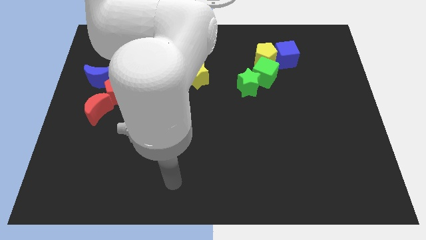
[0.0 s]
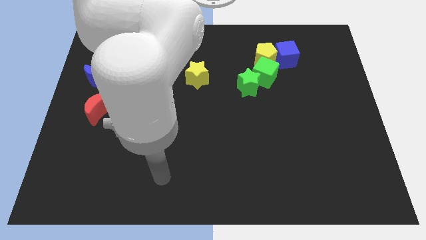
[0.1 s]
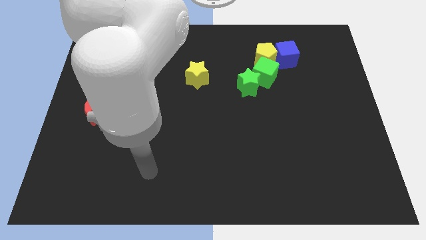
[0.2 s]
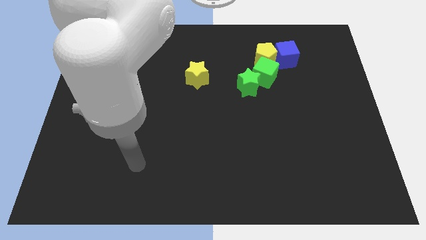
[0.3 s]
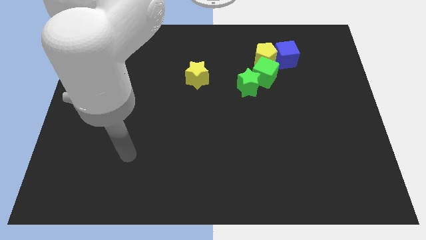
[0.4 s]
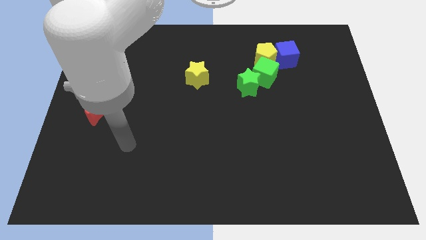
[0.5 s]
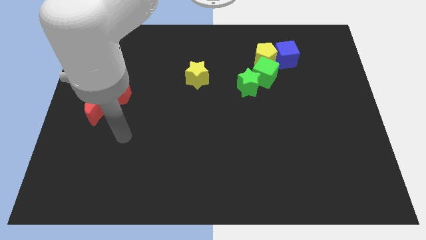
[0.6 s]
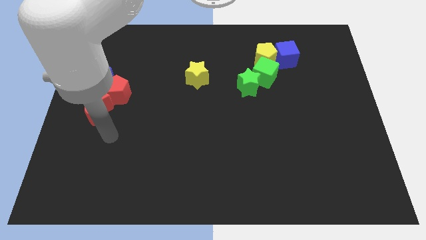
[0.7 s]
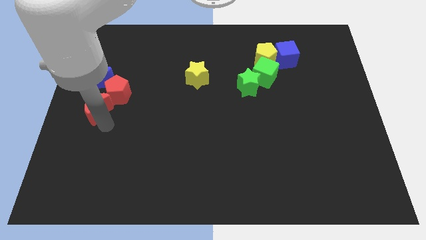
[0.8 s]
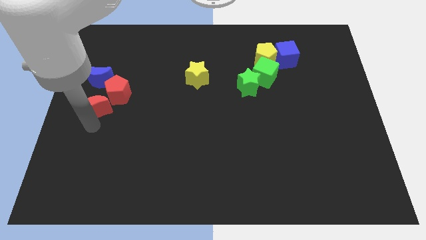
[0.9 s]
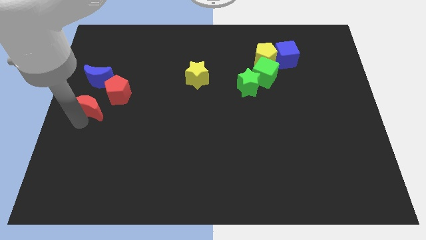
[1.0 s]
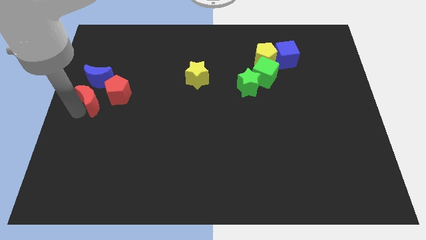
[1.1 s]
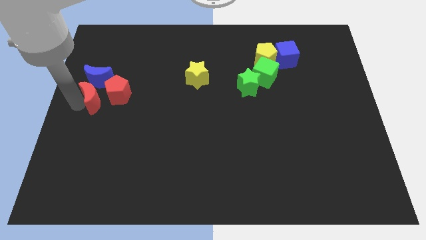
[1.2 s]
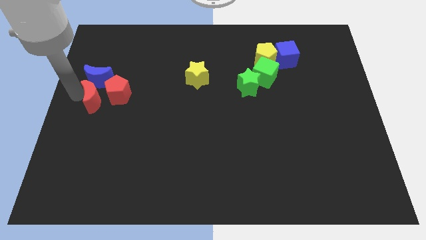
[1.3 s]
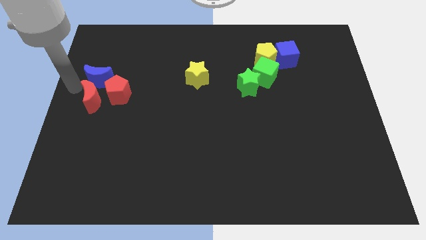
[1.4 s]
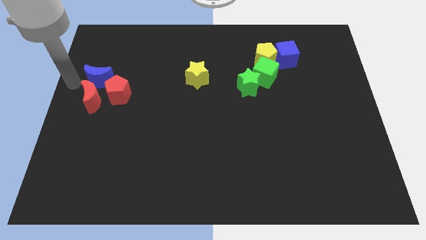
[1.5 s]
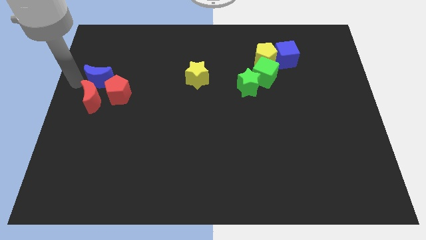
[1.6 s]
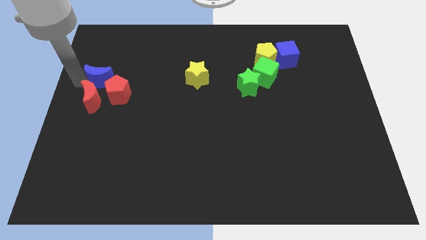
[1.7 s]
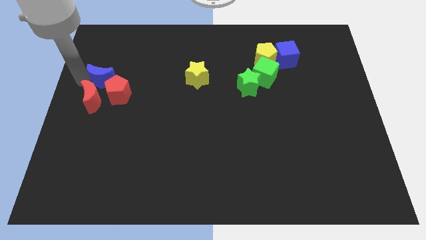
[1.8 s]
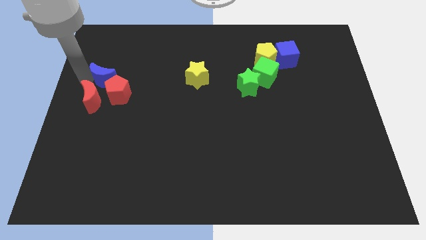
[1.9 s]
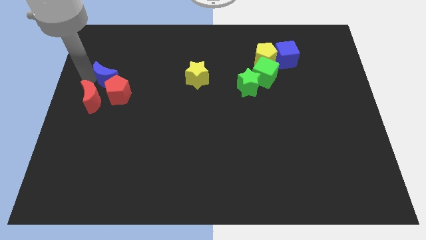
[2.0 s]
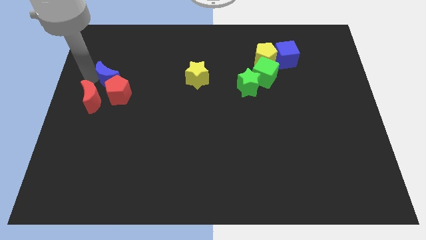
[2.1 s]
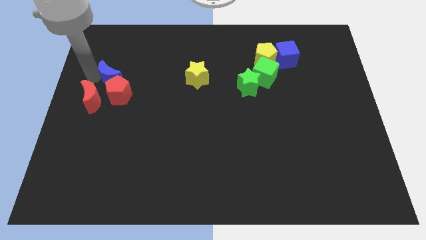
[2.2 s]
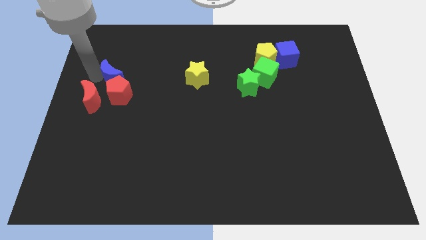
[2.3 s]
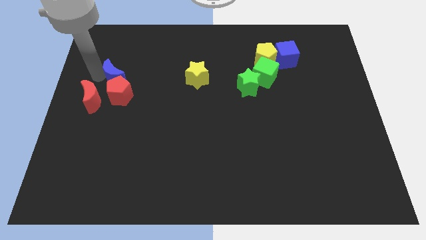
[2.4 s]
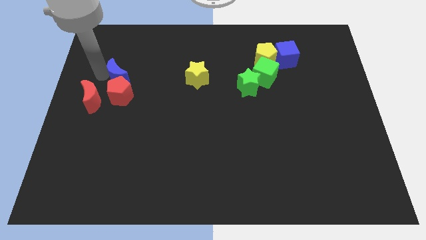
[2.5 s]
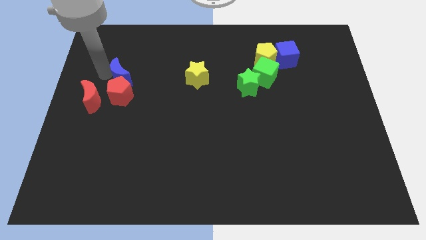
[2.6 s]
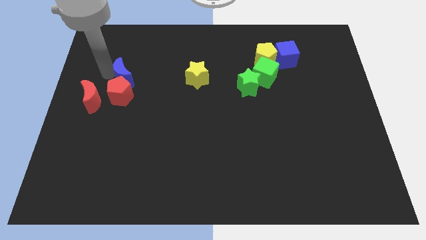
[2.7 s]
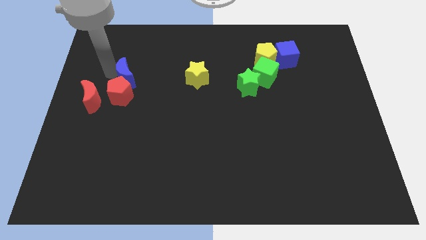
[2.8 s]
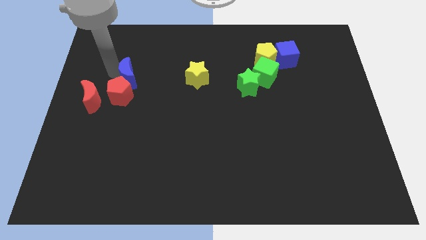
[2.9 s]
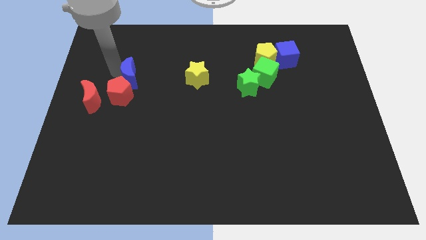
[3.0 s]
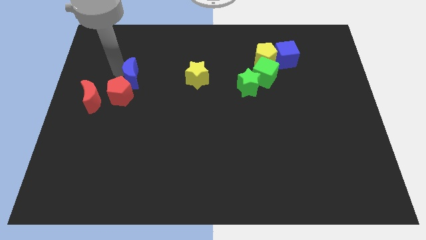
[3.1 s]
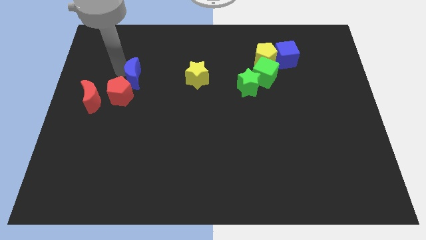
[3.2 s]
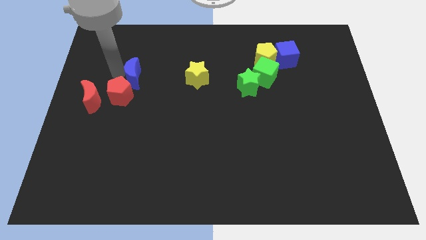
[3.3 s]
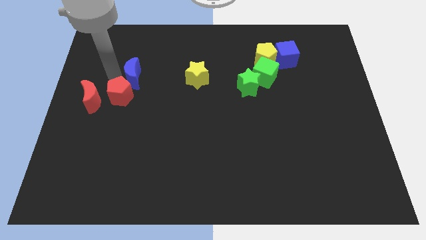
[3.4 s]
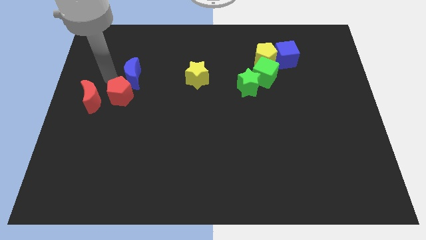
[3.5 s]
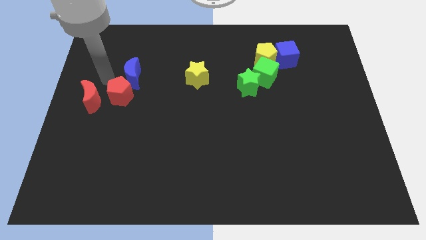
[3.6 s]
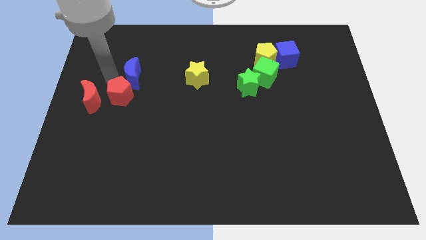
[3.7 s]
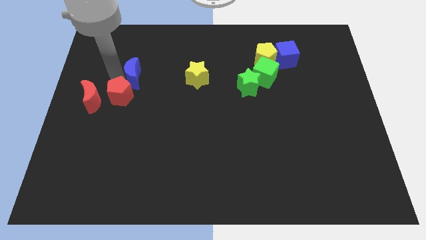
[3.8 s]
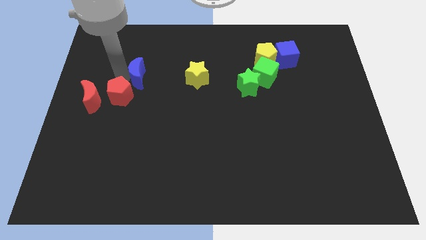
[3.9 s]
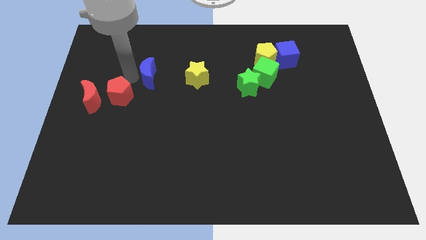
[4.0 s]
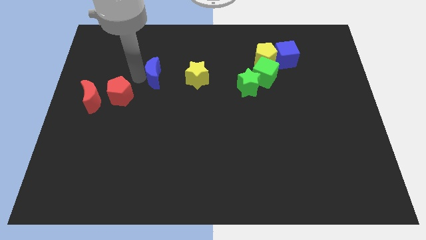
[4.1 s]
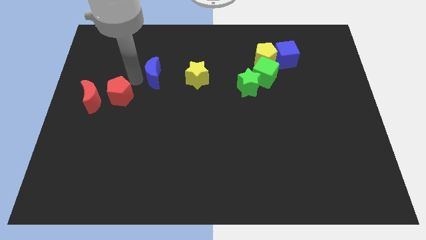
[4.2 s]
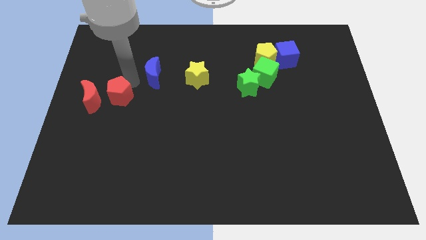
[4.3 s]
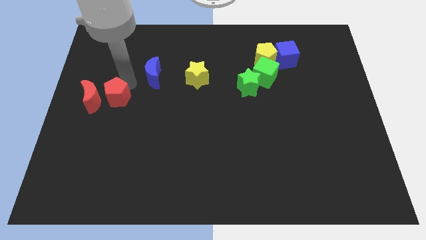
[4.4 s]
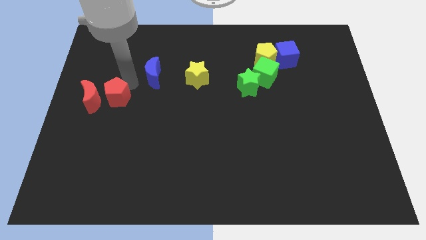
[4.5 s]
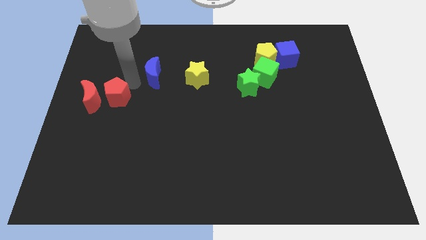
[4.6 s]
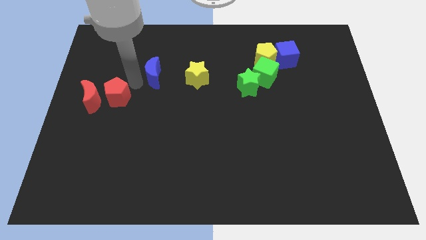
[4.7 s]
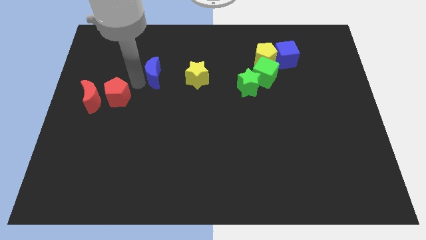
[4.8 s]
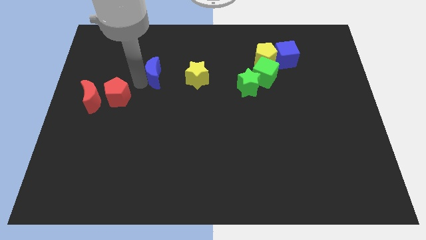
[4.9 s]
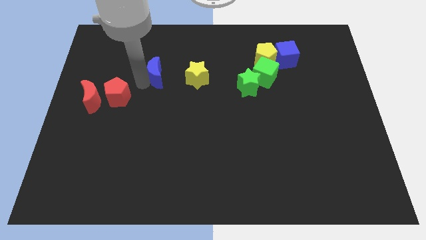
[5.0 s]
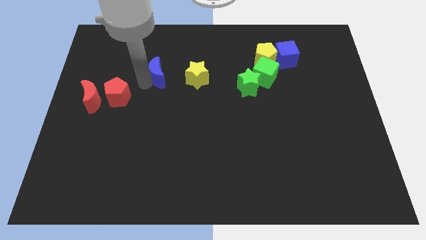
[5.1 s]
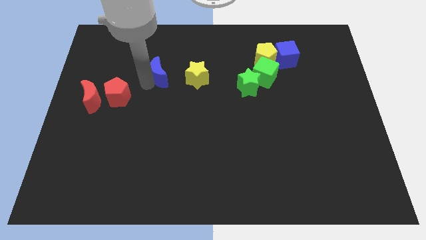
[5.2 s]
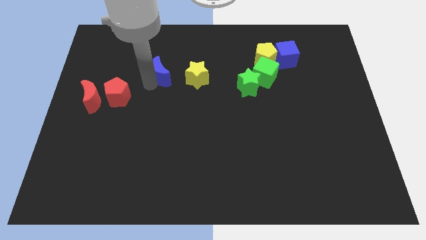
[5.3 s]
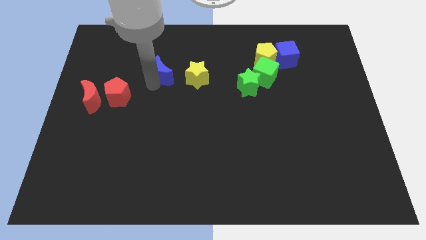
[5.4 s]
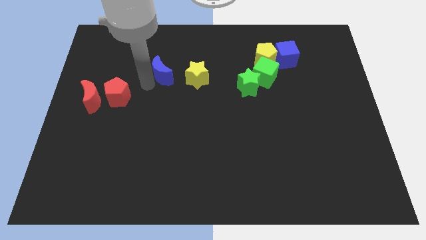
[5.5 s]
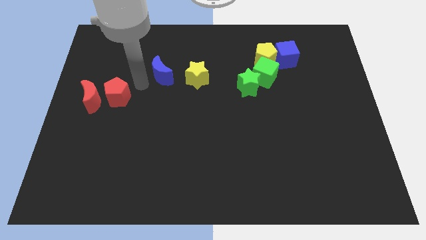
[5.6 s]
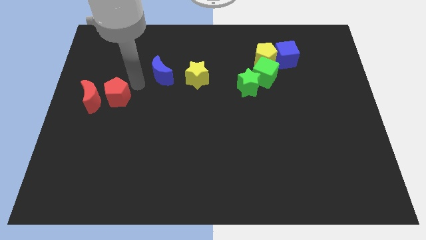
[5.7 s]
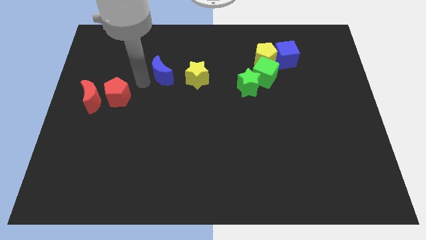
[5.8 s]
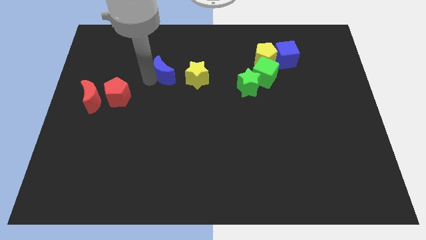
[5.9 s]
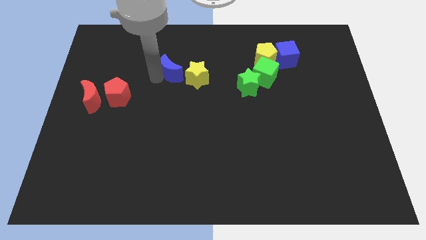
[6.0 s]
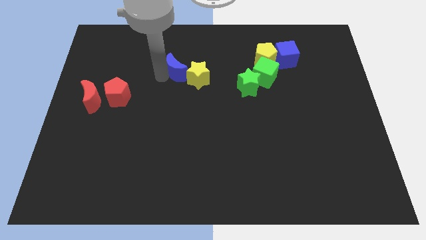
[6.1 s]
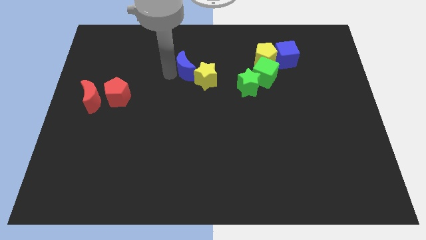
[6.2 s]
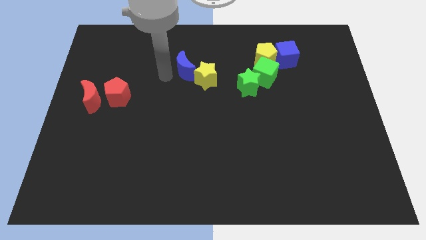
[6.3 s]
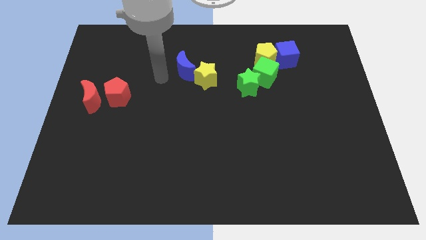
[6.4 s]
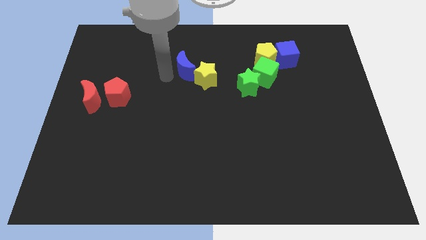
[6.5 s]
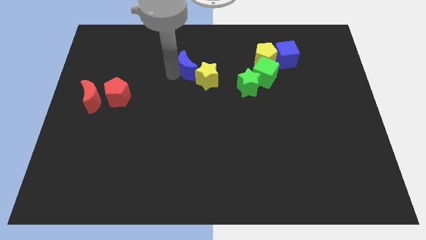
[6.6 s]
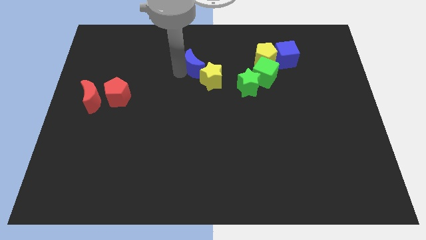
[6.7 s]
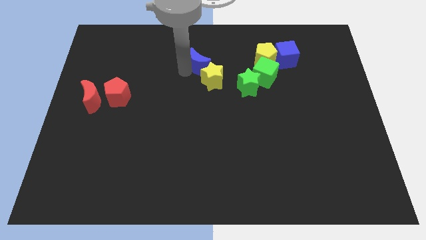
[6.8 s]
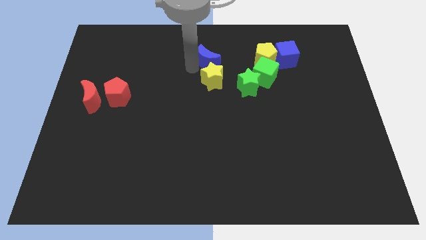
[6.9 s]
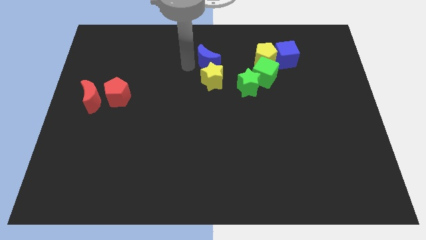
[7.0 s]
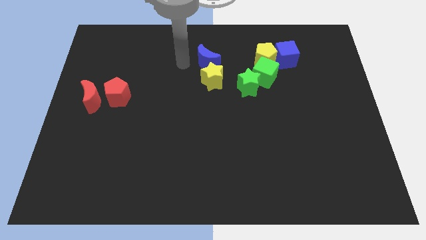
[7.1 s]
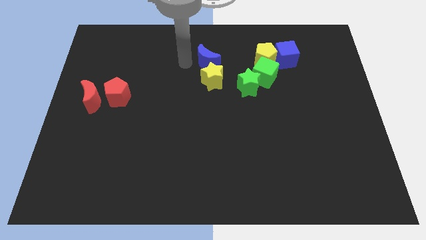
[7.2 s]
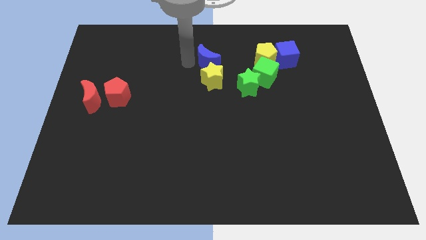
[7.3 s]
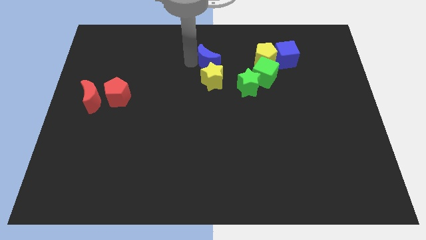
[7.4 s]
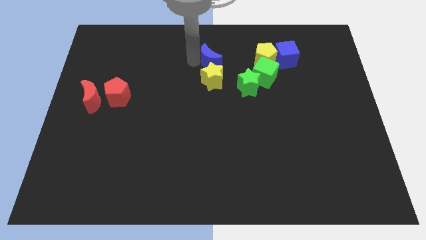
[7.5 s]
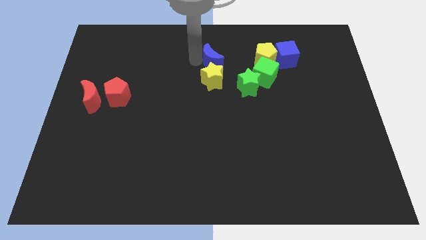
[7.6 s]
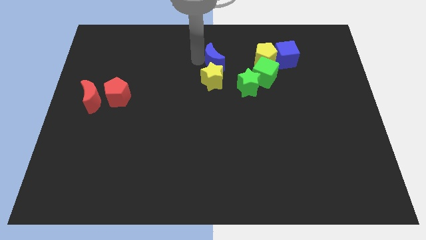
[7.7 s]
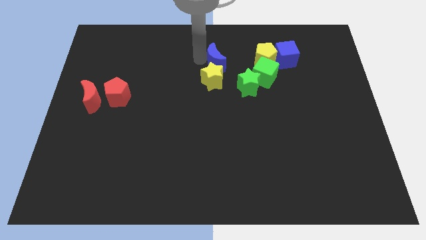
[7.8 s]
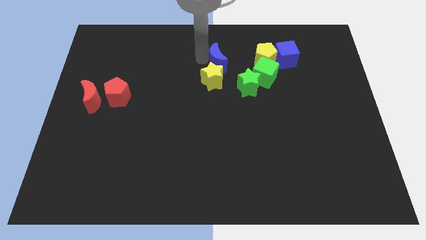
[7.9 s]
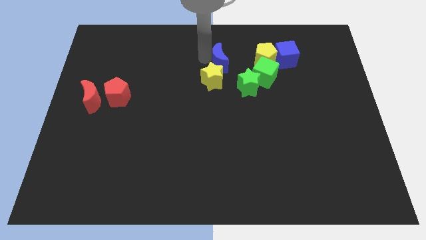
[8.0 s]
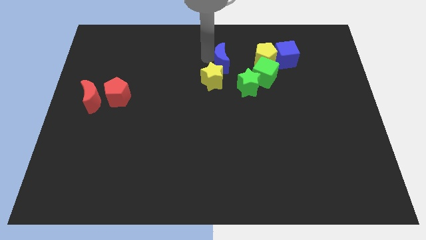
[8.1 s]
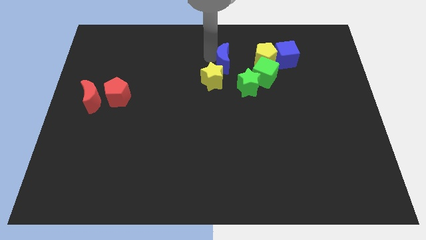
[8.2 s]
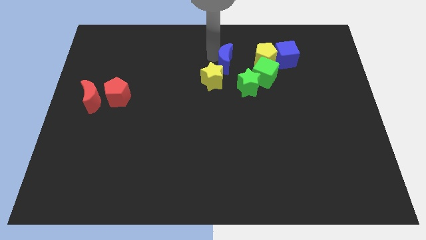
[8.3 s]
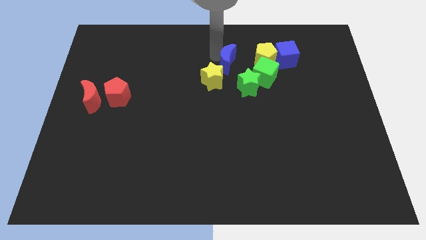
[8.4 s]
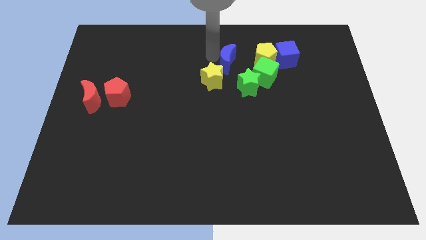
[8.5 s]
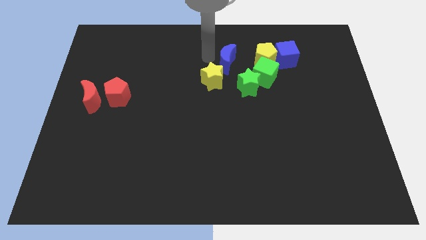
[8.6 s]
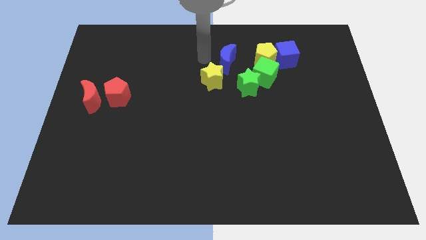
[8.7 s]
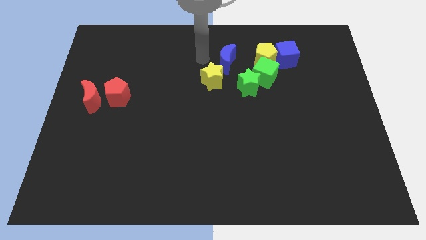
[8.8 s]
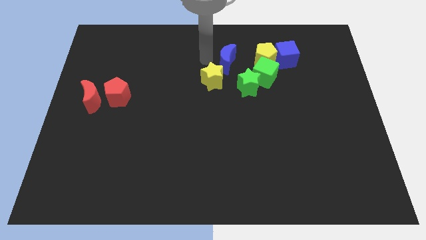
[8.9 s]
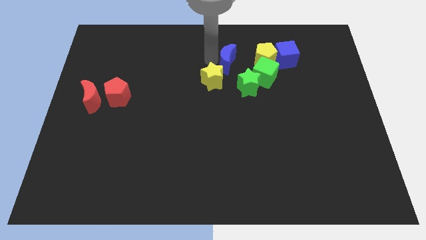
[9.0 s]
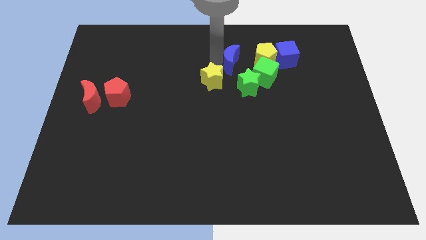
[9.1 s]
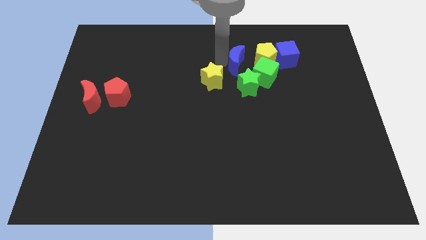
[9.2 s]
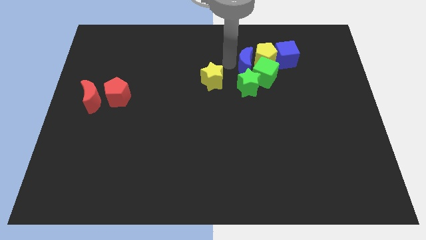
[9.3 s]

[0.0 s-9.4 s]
push the blue moon next to the yellow pentagon
